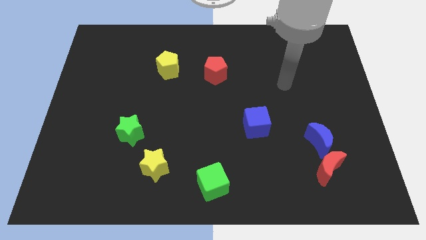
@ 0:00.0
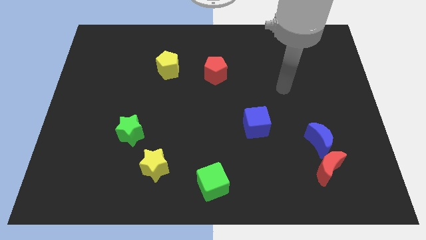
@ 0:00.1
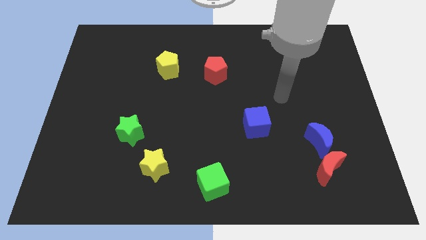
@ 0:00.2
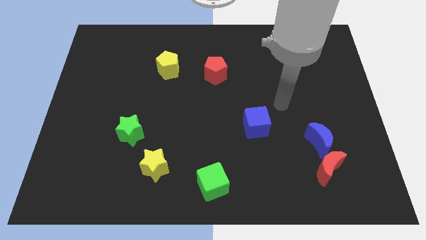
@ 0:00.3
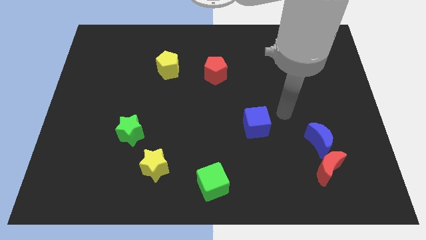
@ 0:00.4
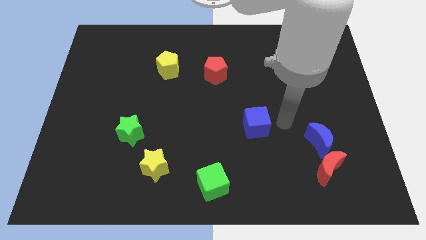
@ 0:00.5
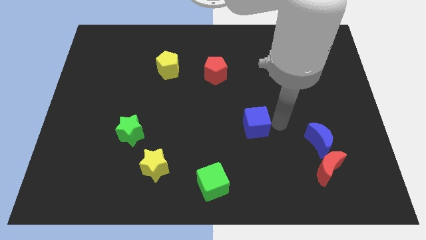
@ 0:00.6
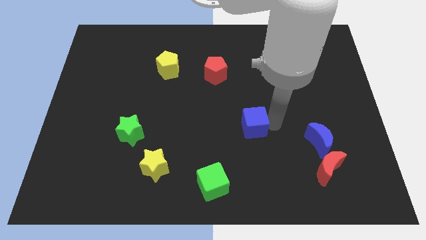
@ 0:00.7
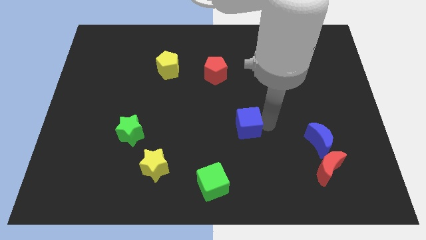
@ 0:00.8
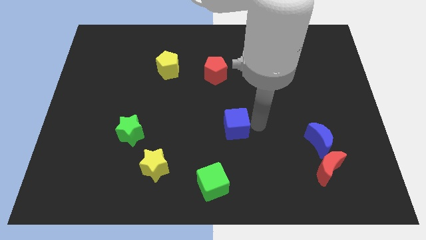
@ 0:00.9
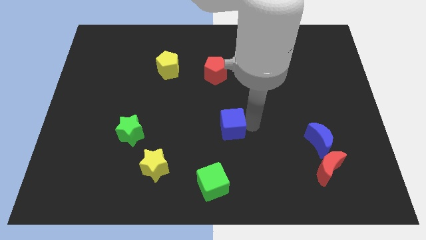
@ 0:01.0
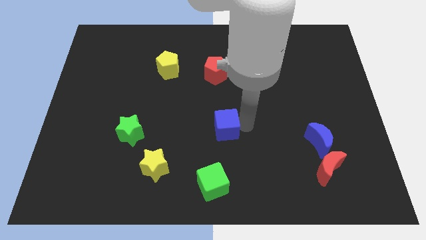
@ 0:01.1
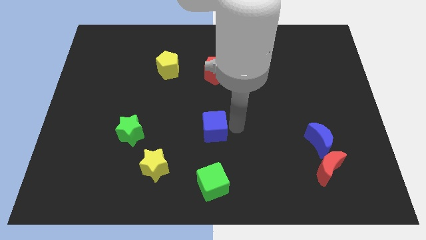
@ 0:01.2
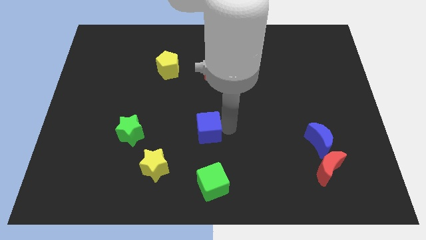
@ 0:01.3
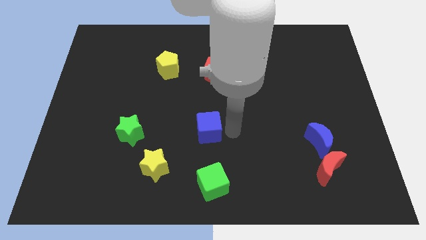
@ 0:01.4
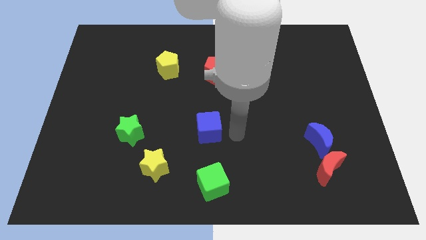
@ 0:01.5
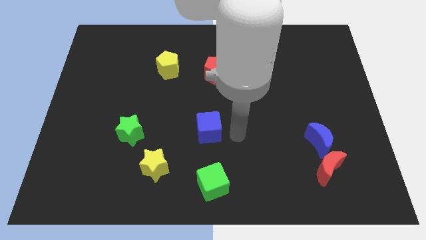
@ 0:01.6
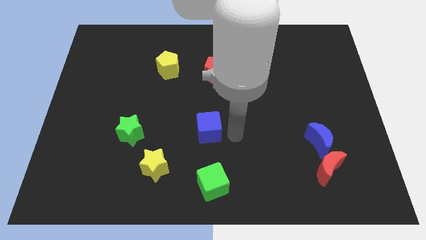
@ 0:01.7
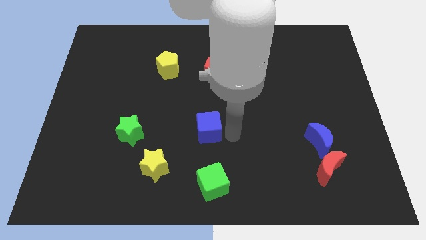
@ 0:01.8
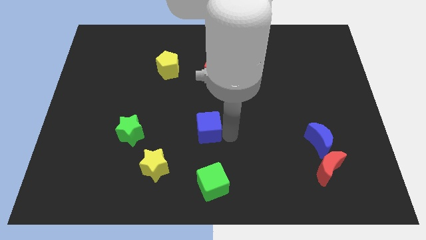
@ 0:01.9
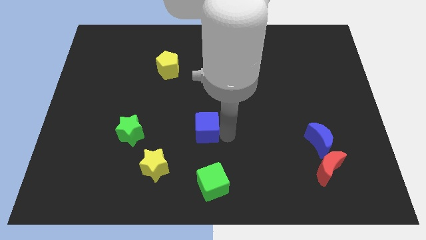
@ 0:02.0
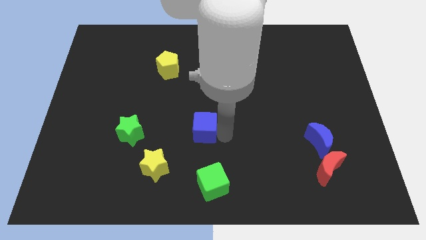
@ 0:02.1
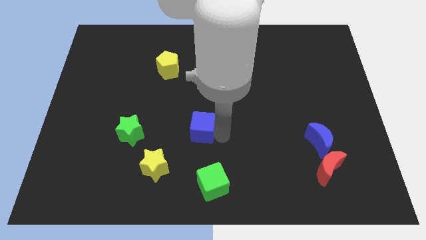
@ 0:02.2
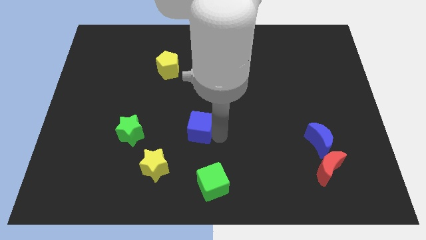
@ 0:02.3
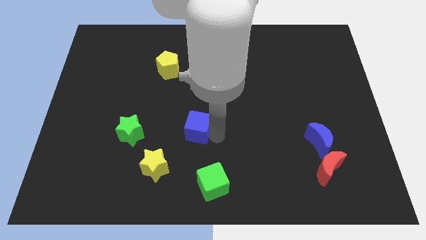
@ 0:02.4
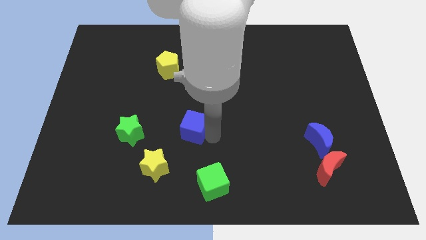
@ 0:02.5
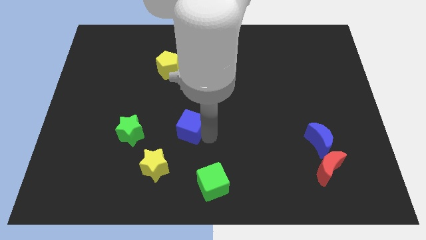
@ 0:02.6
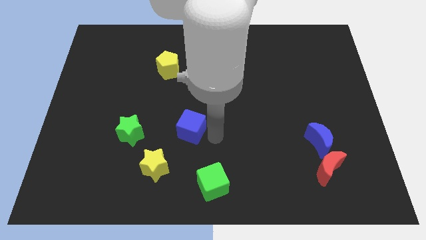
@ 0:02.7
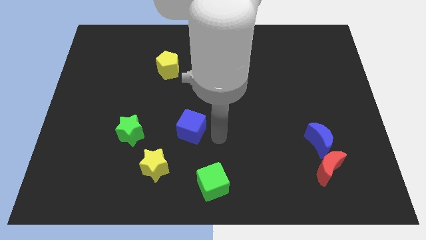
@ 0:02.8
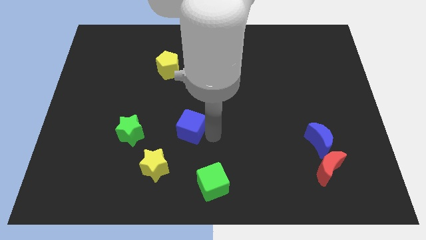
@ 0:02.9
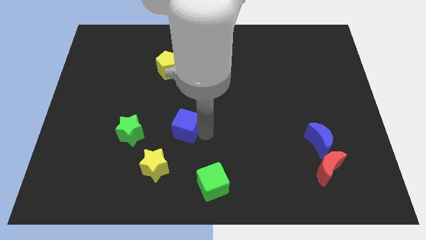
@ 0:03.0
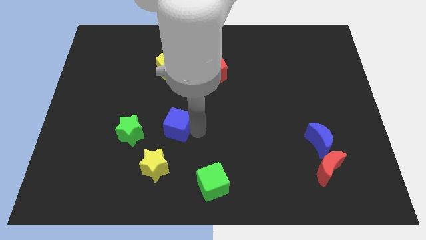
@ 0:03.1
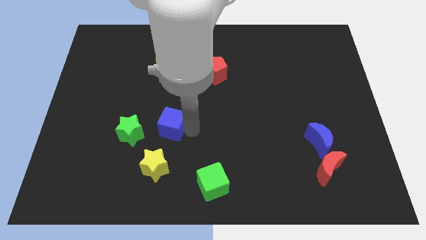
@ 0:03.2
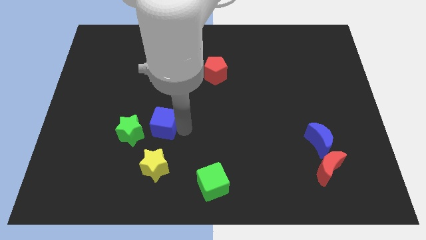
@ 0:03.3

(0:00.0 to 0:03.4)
move the blue cube left

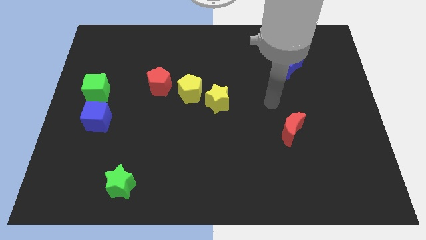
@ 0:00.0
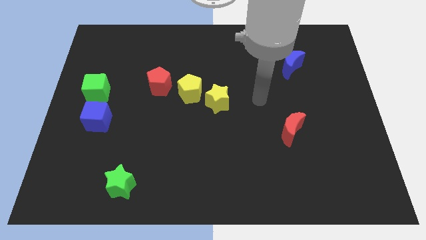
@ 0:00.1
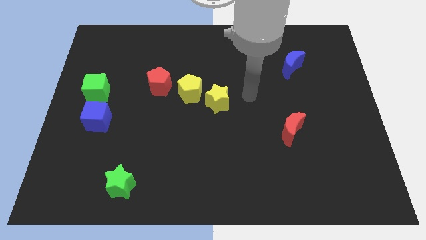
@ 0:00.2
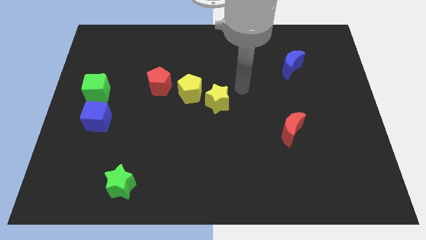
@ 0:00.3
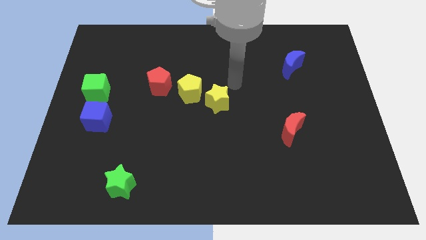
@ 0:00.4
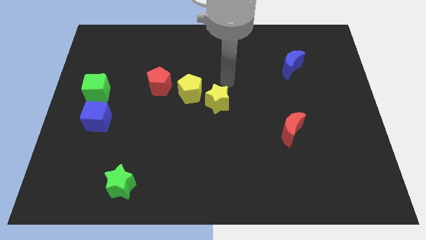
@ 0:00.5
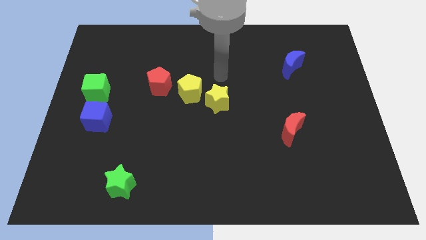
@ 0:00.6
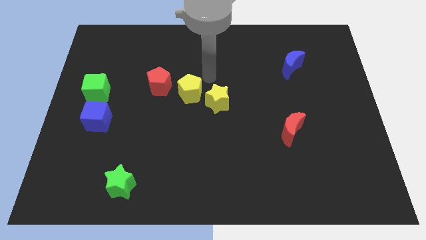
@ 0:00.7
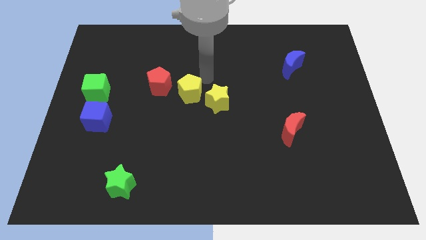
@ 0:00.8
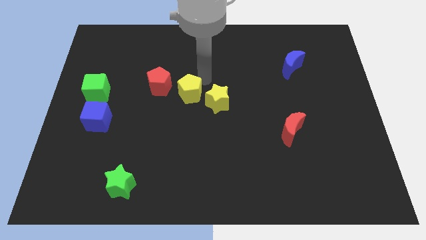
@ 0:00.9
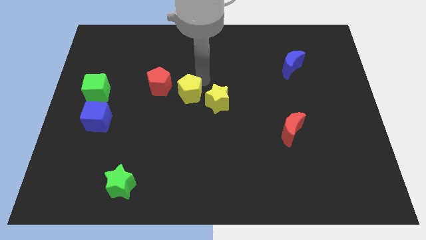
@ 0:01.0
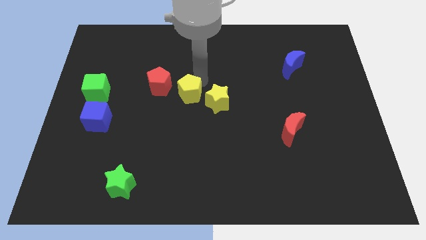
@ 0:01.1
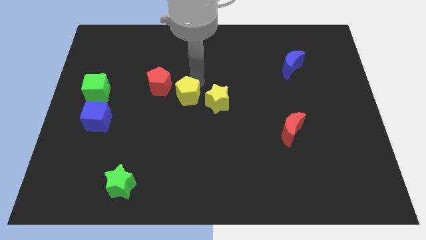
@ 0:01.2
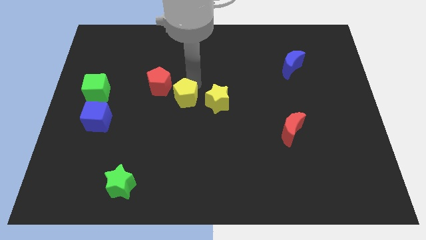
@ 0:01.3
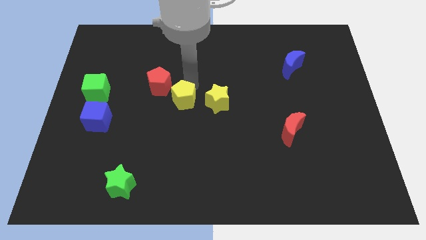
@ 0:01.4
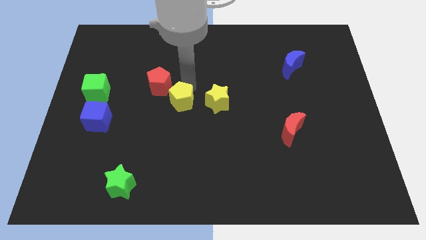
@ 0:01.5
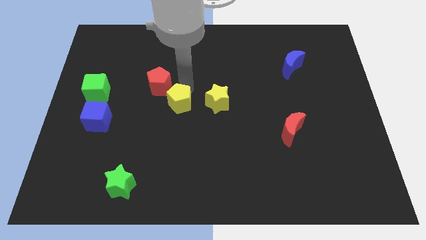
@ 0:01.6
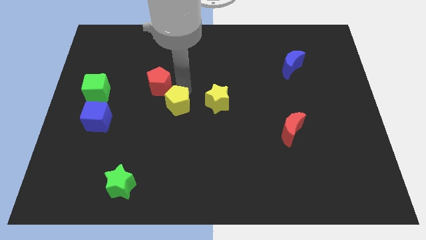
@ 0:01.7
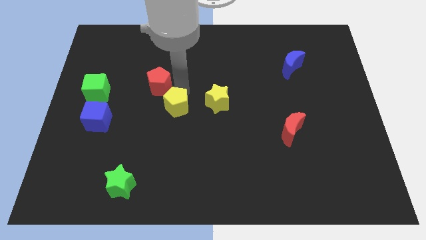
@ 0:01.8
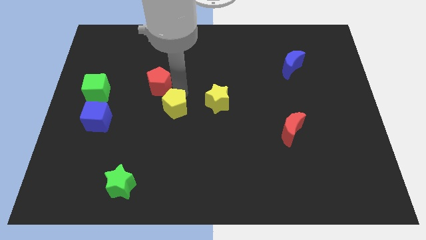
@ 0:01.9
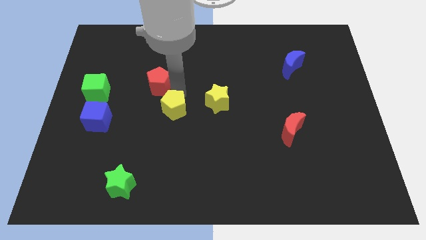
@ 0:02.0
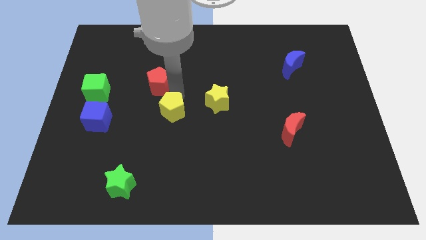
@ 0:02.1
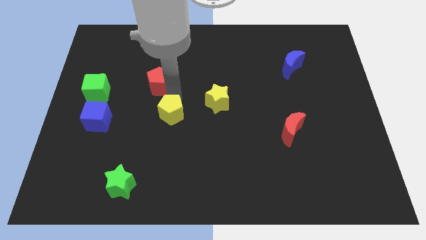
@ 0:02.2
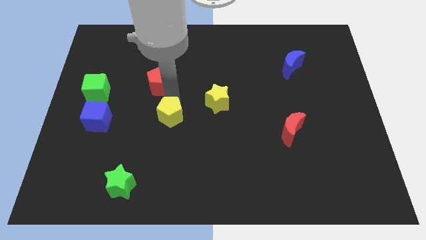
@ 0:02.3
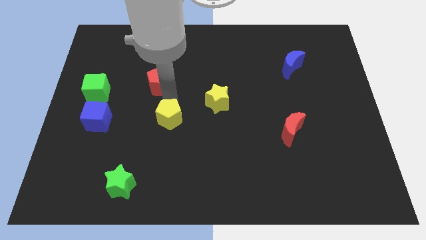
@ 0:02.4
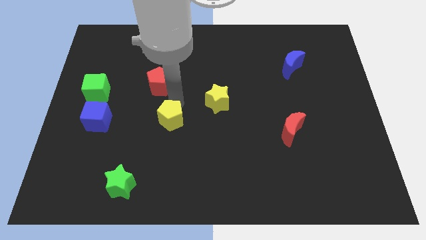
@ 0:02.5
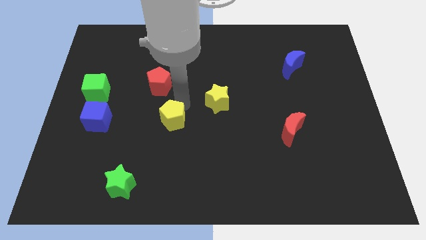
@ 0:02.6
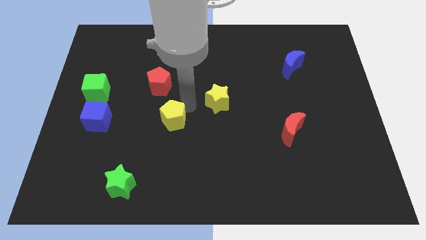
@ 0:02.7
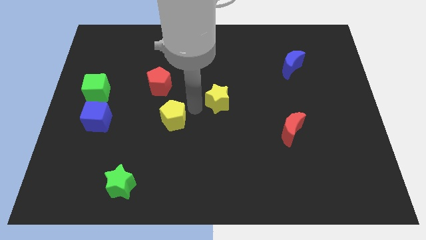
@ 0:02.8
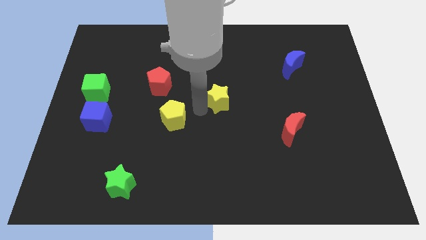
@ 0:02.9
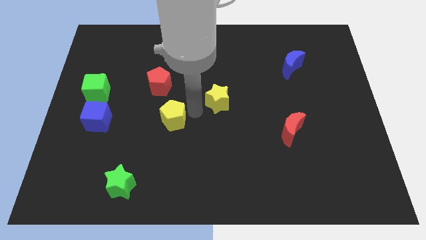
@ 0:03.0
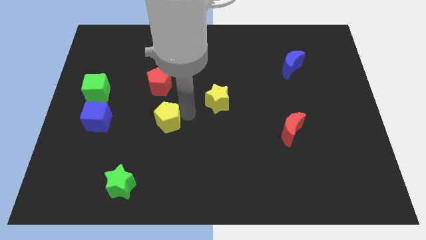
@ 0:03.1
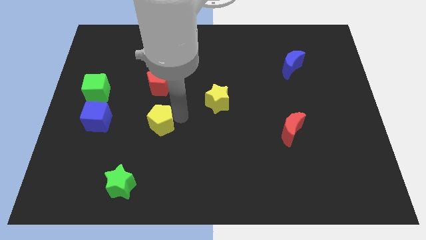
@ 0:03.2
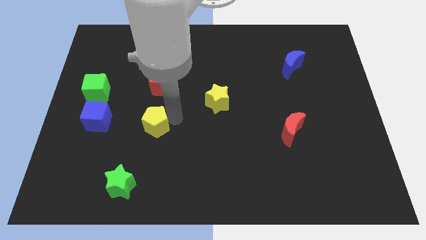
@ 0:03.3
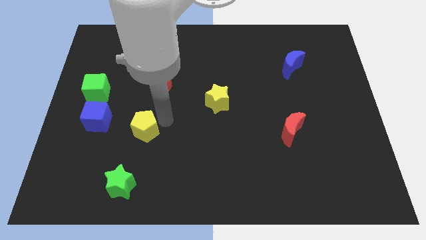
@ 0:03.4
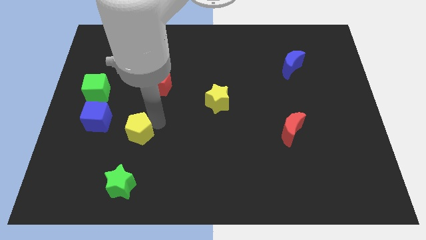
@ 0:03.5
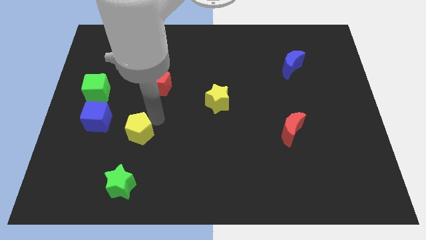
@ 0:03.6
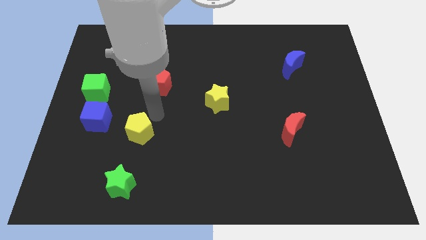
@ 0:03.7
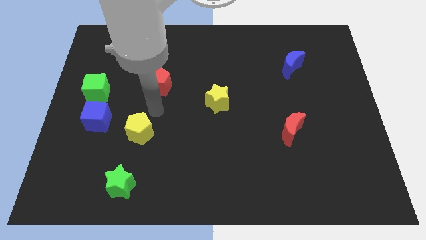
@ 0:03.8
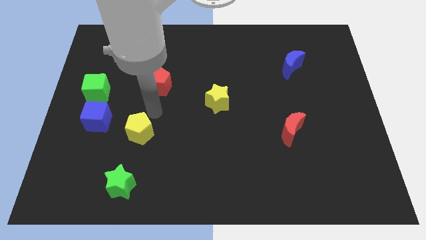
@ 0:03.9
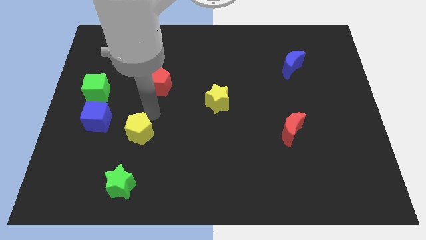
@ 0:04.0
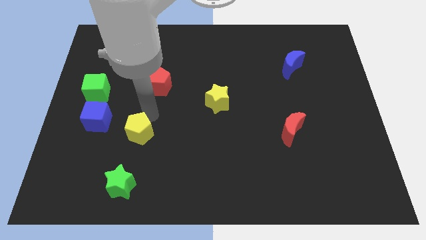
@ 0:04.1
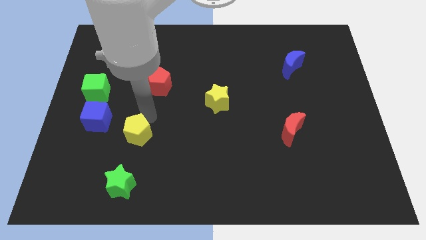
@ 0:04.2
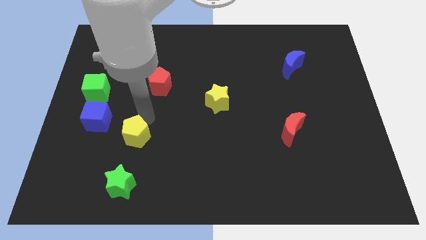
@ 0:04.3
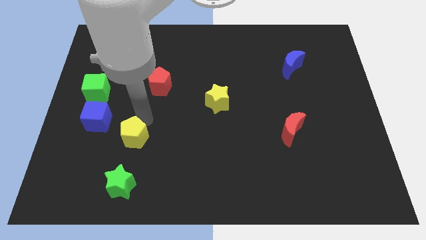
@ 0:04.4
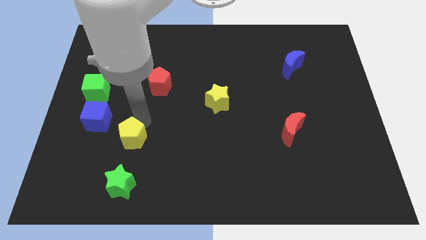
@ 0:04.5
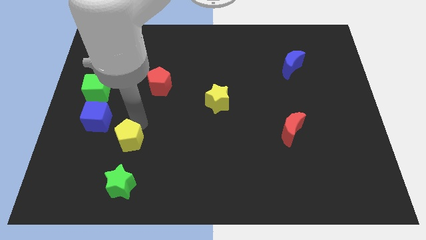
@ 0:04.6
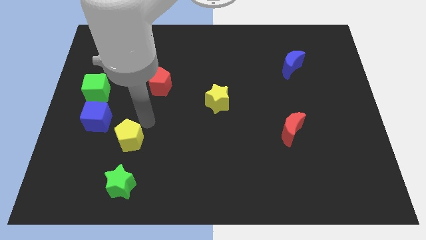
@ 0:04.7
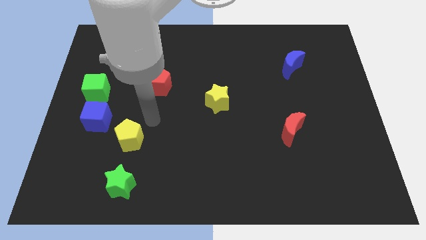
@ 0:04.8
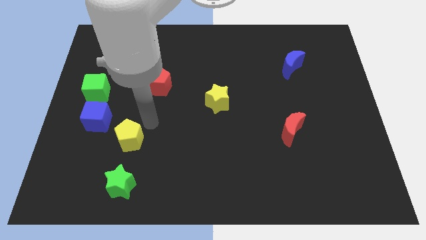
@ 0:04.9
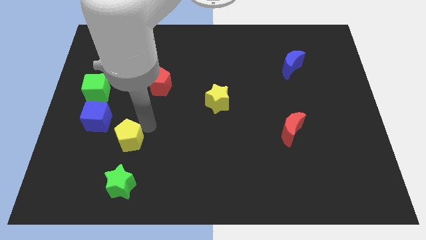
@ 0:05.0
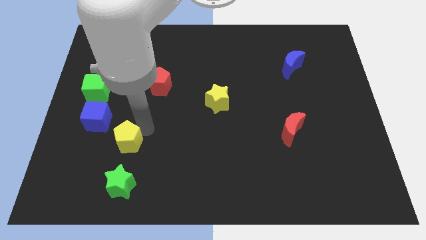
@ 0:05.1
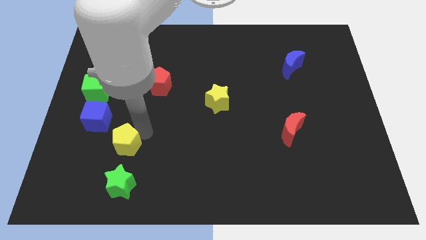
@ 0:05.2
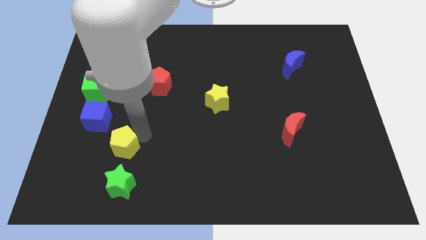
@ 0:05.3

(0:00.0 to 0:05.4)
slide the yellow pentagon diagonally down and left
